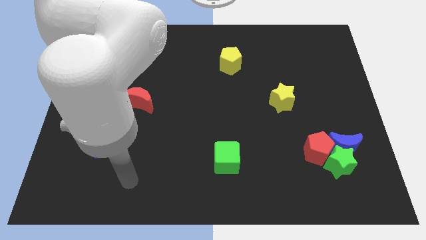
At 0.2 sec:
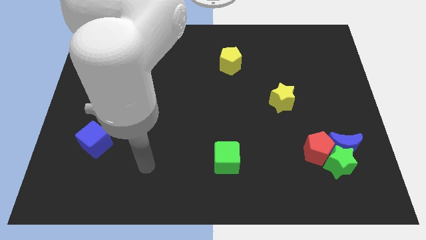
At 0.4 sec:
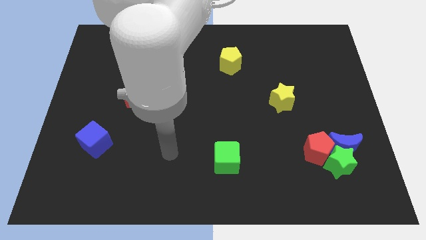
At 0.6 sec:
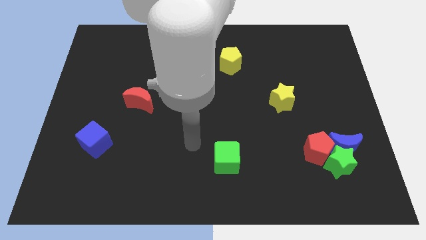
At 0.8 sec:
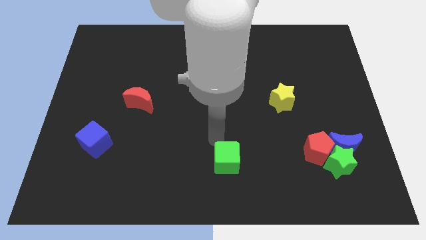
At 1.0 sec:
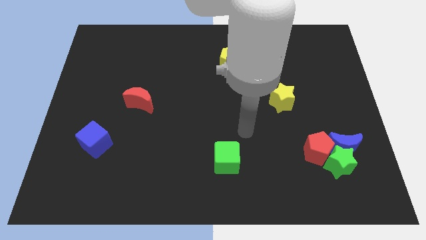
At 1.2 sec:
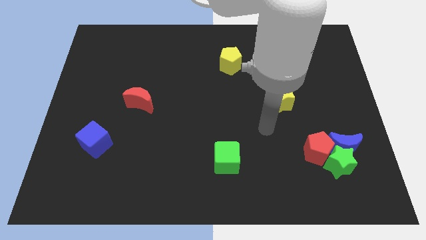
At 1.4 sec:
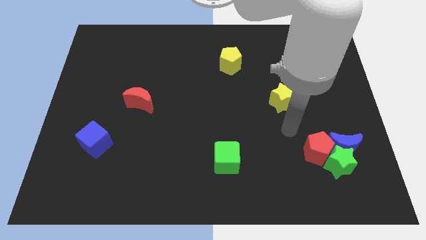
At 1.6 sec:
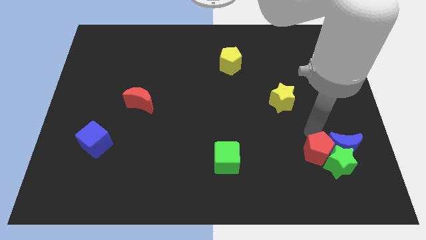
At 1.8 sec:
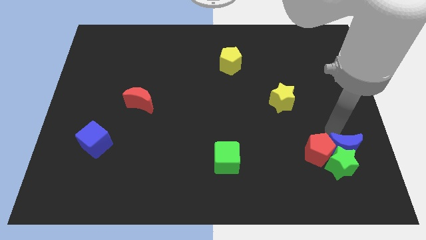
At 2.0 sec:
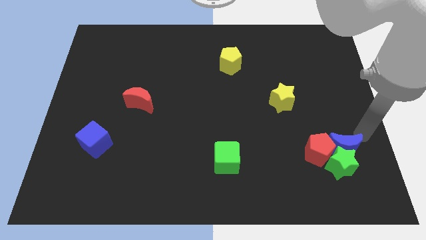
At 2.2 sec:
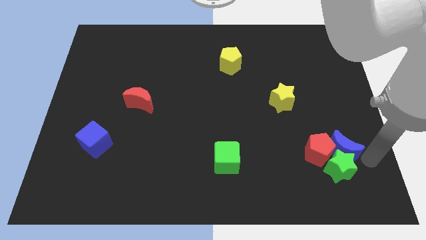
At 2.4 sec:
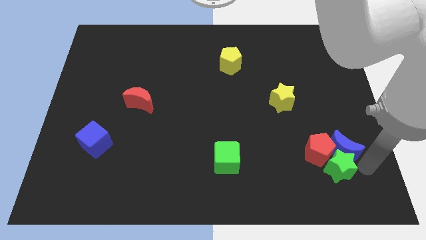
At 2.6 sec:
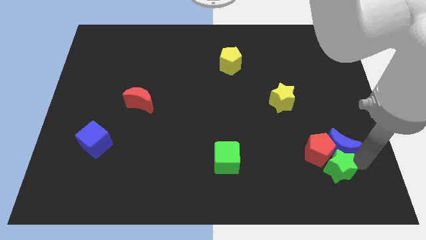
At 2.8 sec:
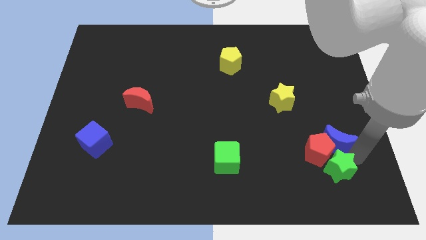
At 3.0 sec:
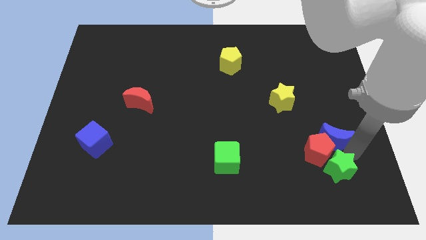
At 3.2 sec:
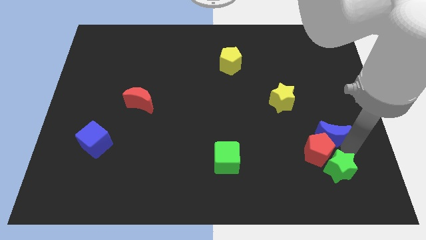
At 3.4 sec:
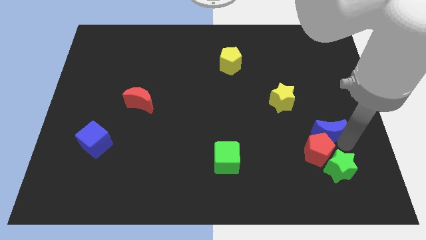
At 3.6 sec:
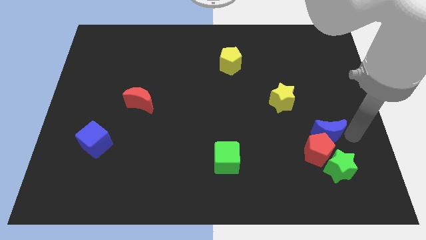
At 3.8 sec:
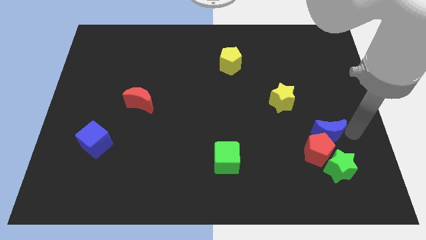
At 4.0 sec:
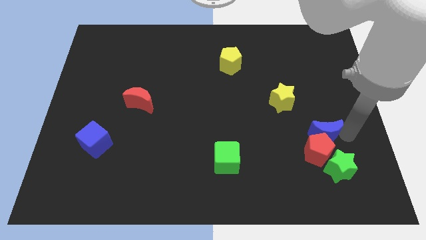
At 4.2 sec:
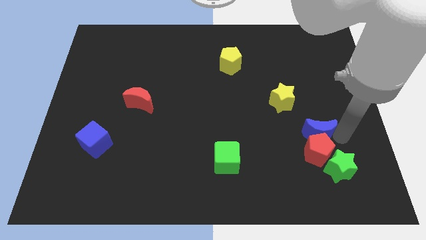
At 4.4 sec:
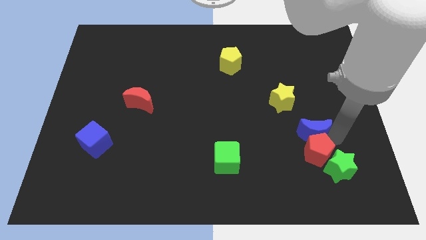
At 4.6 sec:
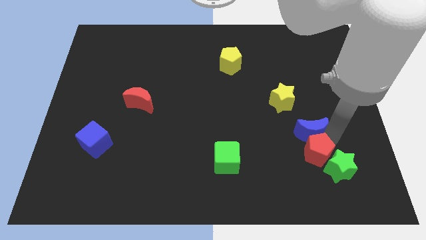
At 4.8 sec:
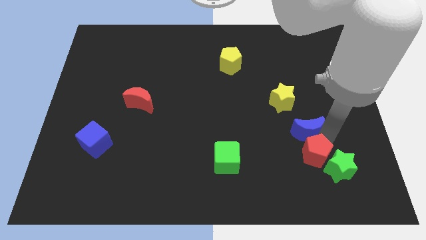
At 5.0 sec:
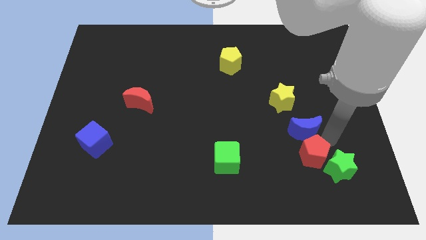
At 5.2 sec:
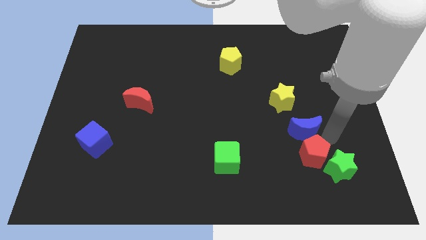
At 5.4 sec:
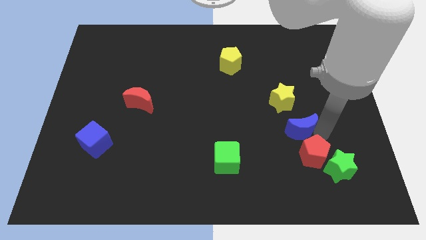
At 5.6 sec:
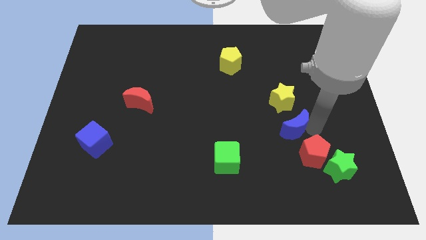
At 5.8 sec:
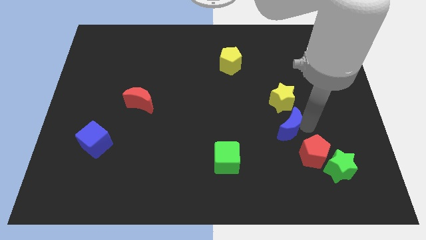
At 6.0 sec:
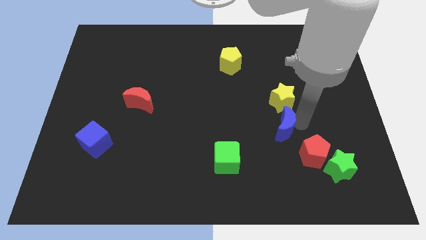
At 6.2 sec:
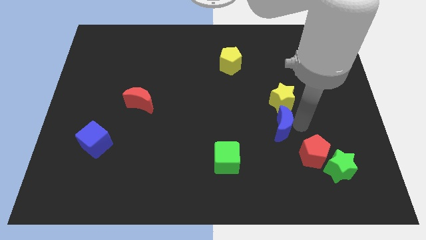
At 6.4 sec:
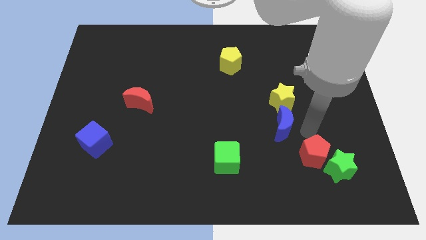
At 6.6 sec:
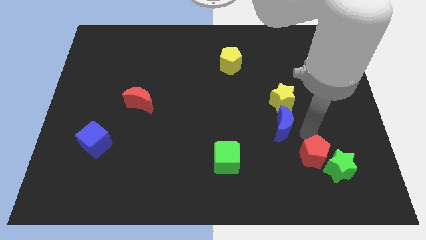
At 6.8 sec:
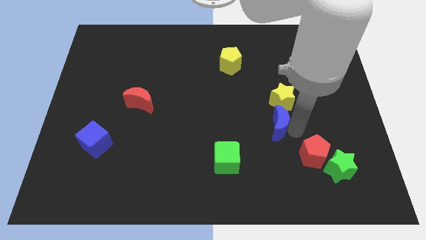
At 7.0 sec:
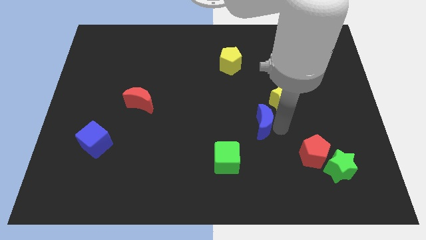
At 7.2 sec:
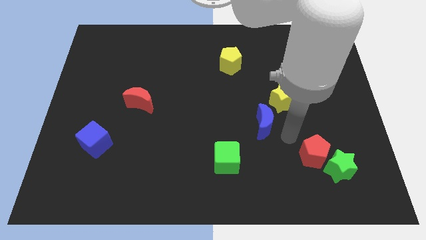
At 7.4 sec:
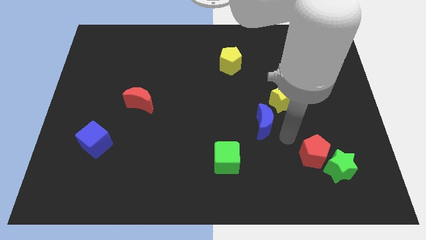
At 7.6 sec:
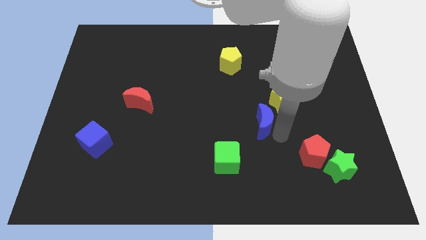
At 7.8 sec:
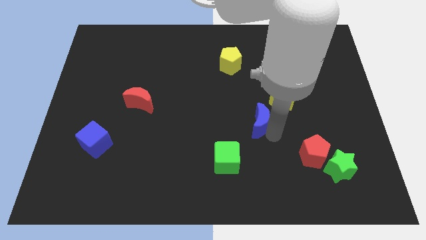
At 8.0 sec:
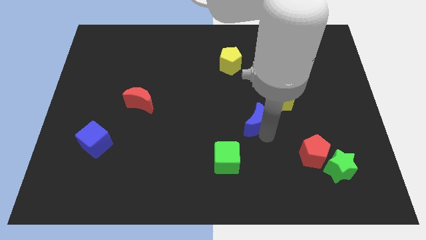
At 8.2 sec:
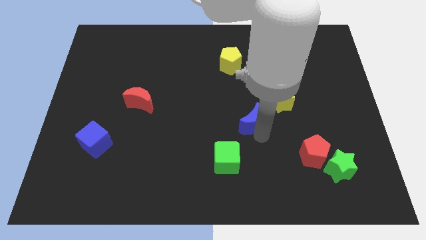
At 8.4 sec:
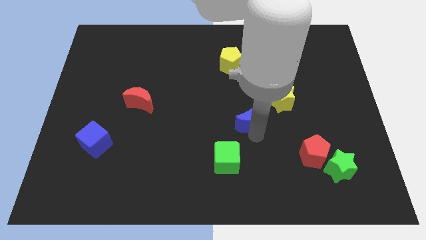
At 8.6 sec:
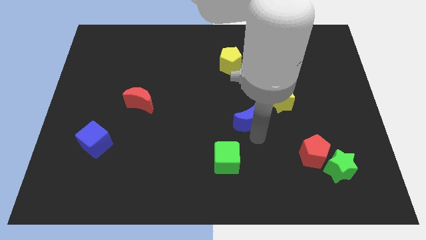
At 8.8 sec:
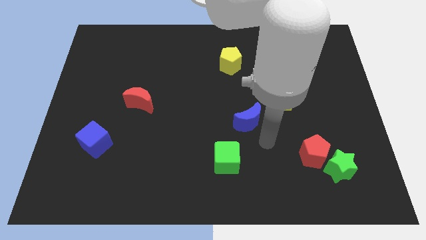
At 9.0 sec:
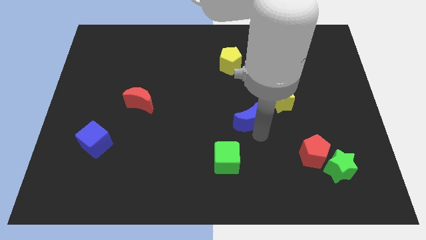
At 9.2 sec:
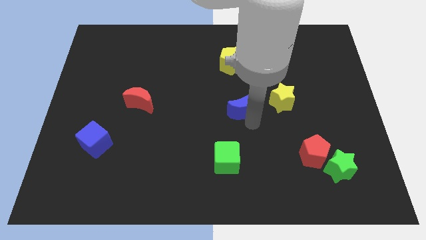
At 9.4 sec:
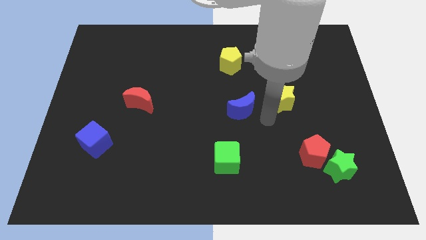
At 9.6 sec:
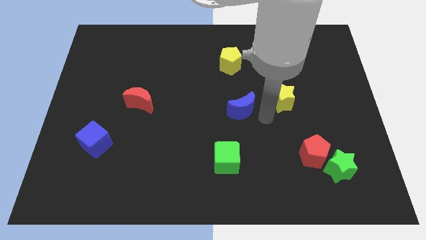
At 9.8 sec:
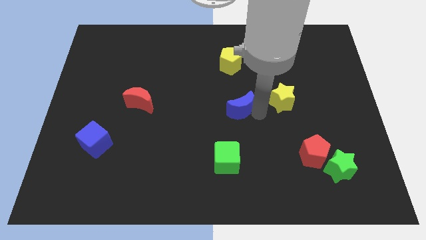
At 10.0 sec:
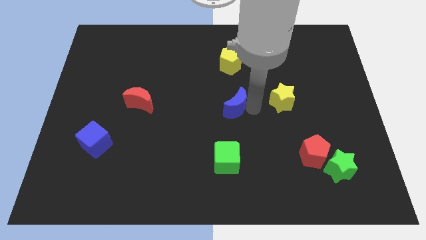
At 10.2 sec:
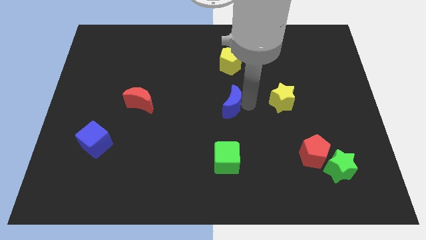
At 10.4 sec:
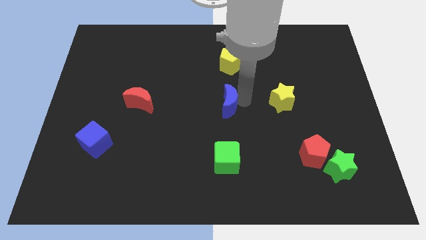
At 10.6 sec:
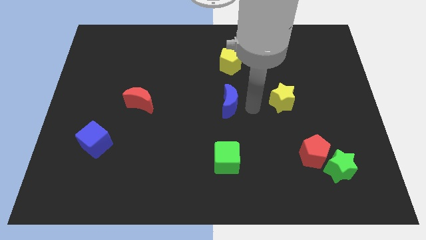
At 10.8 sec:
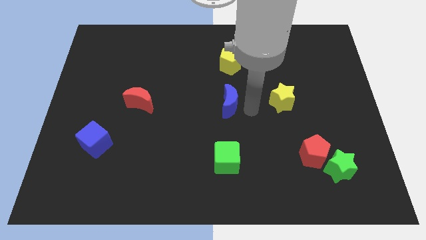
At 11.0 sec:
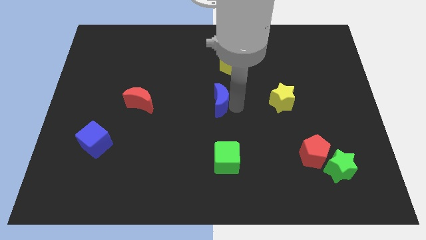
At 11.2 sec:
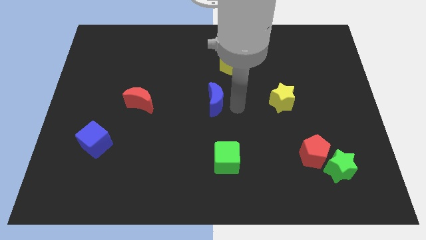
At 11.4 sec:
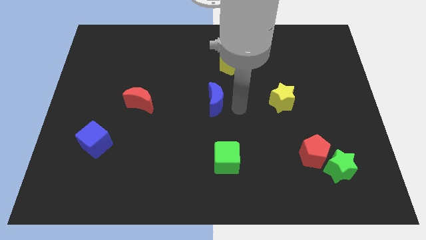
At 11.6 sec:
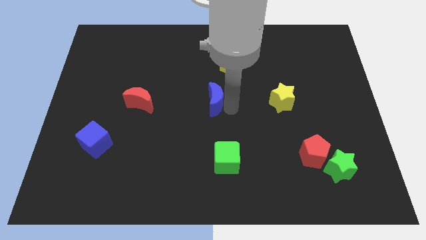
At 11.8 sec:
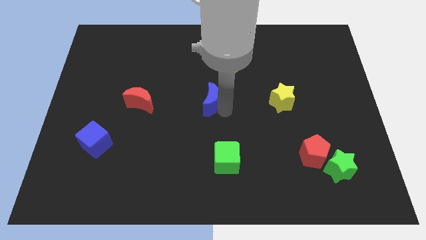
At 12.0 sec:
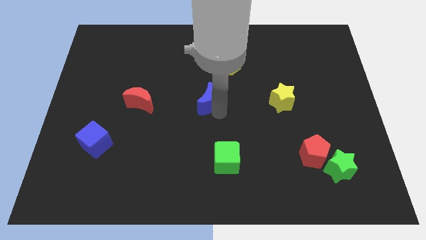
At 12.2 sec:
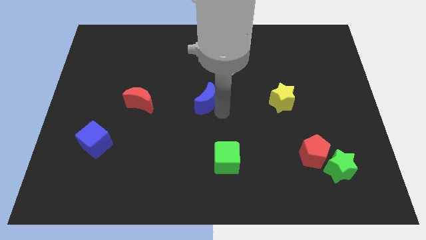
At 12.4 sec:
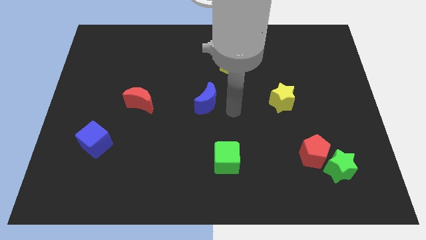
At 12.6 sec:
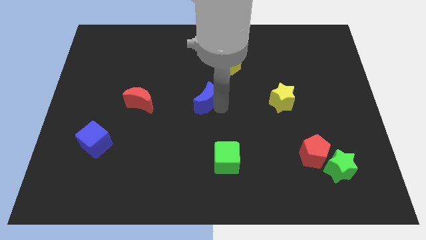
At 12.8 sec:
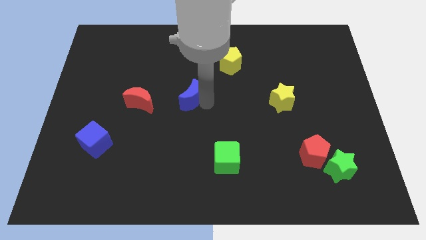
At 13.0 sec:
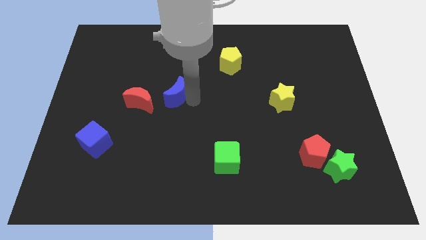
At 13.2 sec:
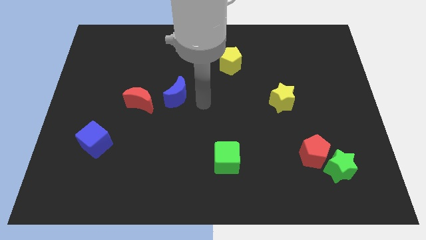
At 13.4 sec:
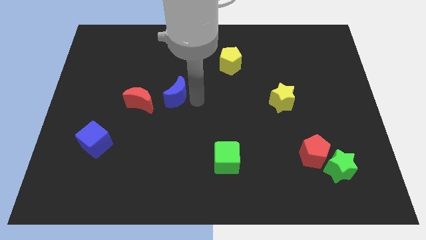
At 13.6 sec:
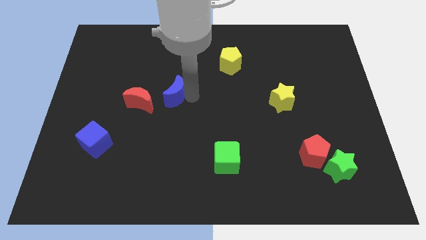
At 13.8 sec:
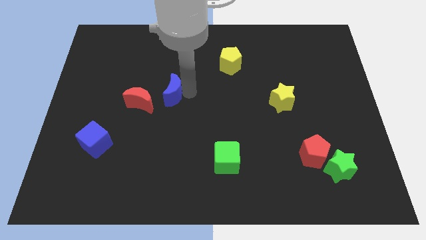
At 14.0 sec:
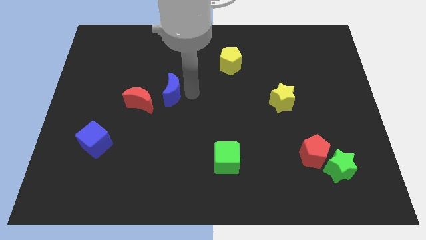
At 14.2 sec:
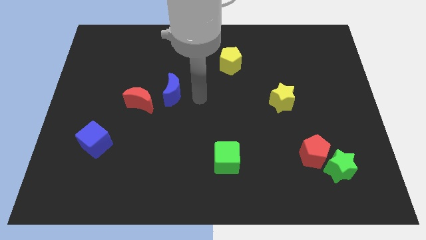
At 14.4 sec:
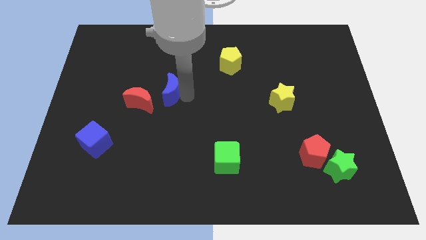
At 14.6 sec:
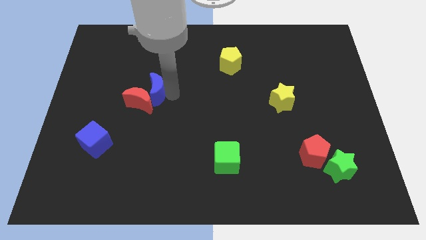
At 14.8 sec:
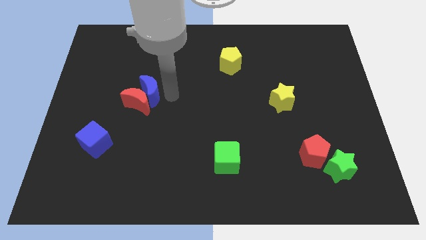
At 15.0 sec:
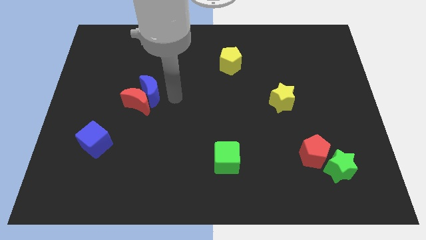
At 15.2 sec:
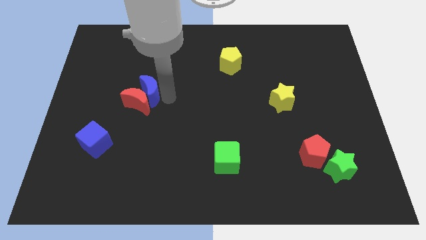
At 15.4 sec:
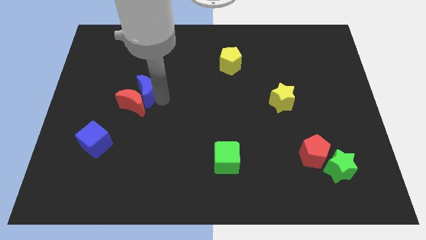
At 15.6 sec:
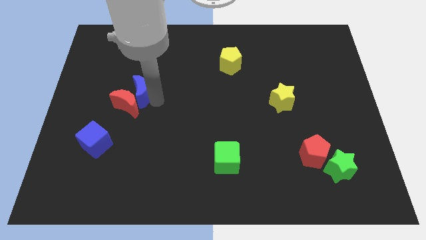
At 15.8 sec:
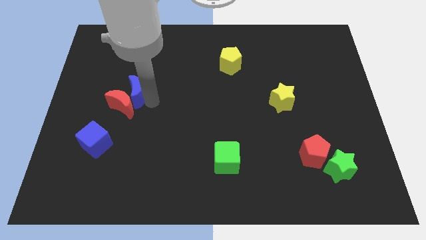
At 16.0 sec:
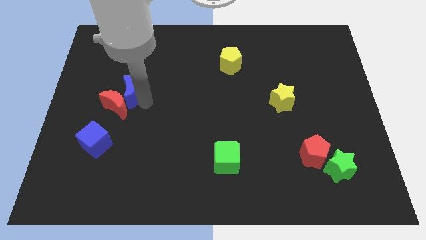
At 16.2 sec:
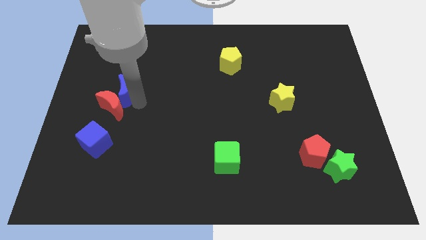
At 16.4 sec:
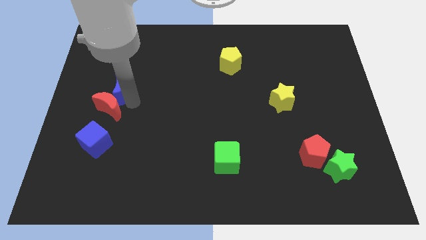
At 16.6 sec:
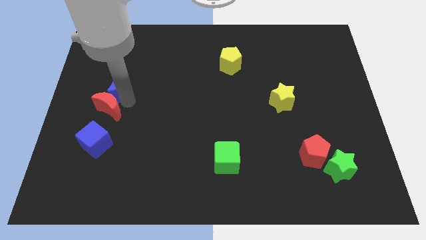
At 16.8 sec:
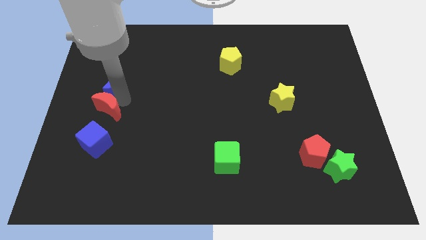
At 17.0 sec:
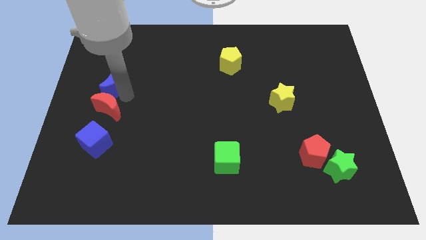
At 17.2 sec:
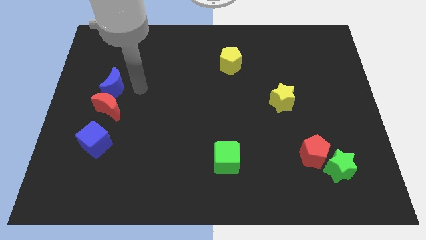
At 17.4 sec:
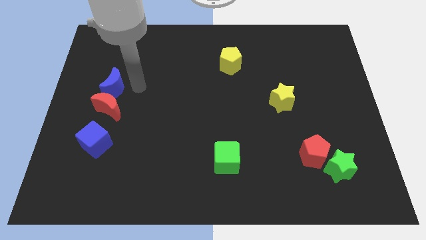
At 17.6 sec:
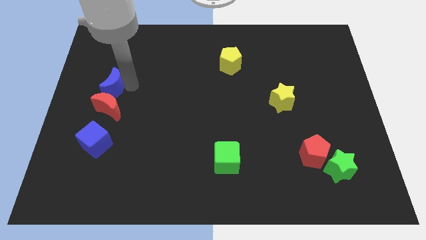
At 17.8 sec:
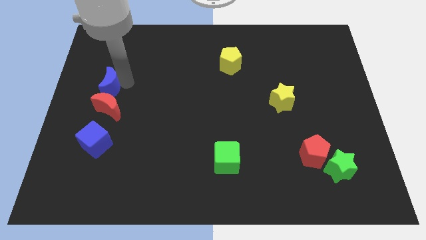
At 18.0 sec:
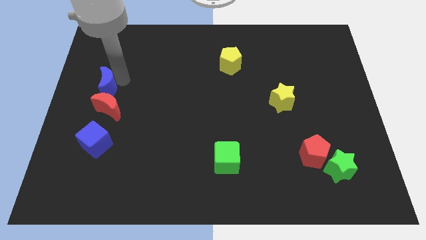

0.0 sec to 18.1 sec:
push the blue moon to the left side of the board
